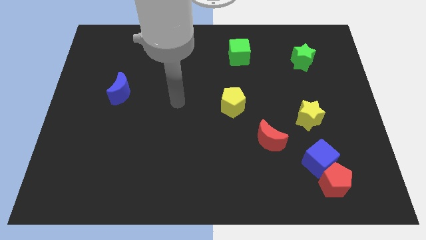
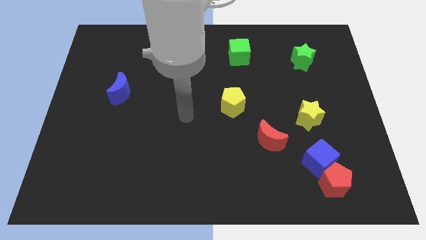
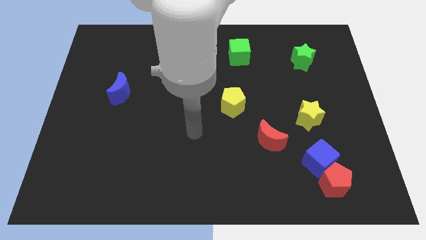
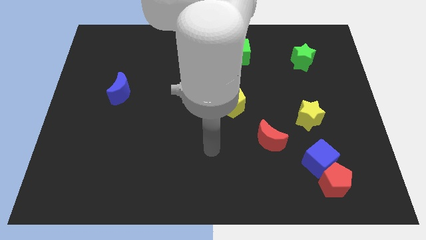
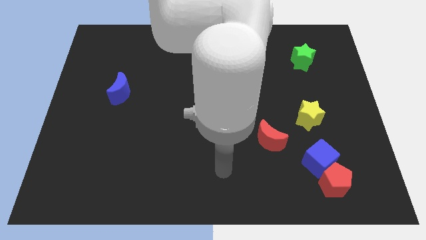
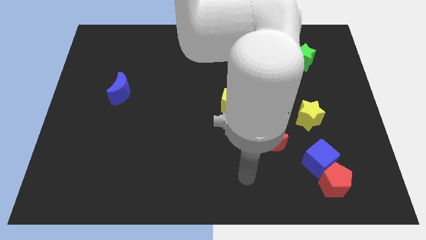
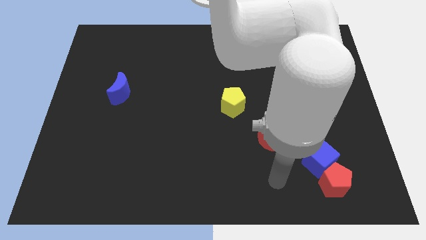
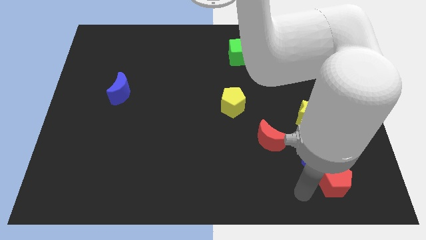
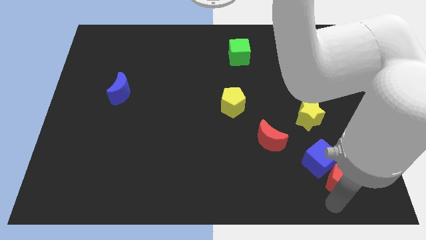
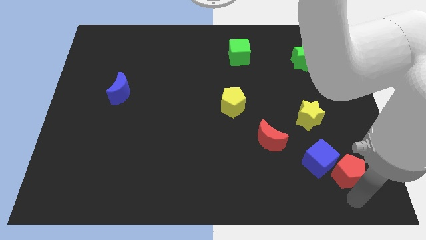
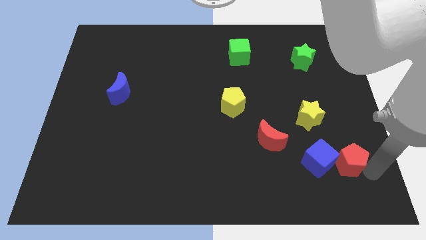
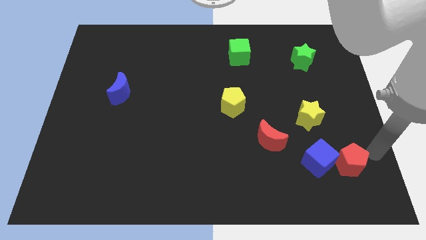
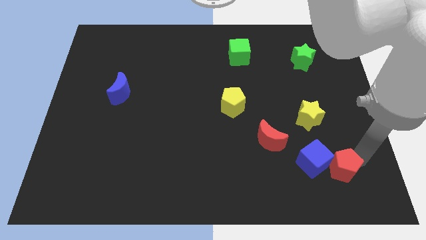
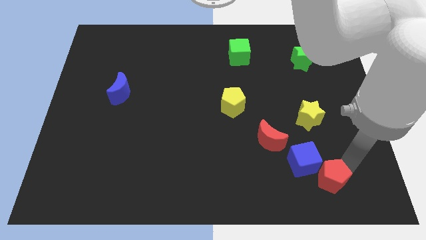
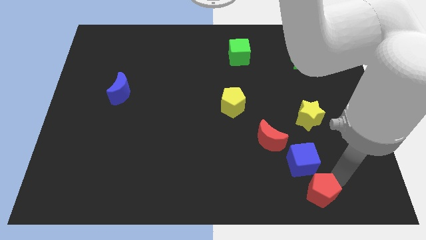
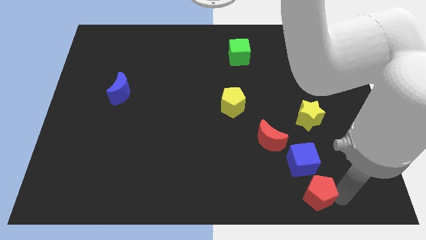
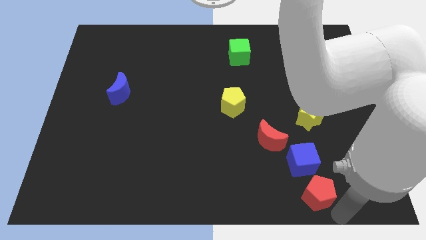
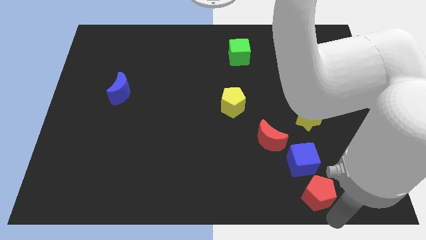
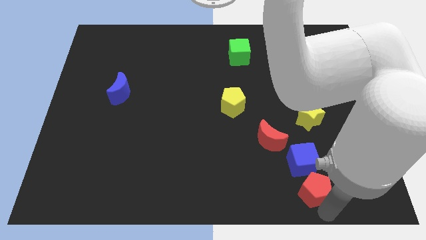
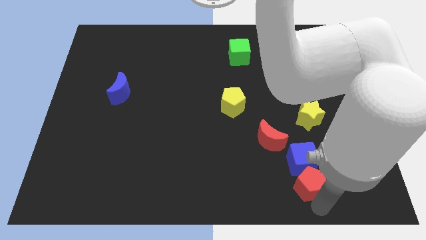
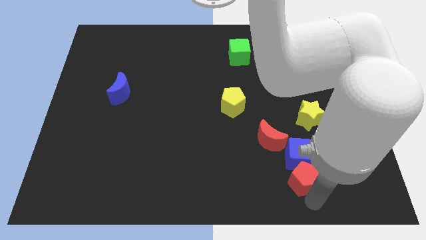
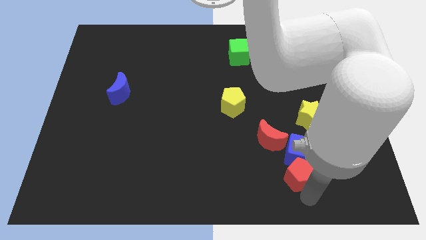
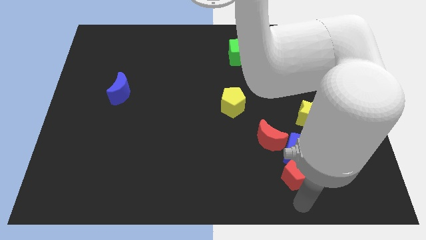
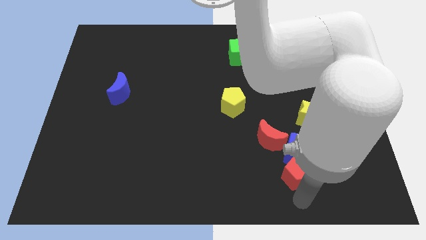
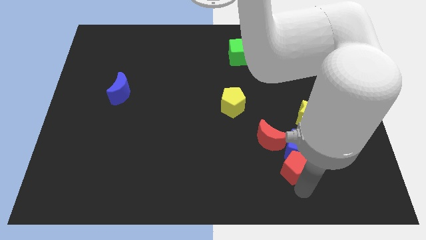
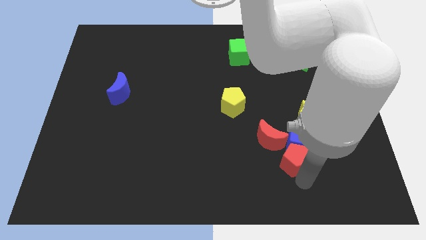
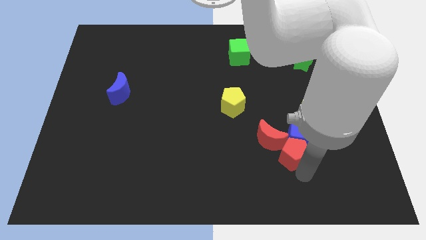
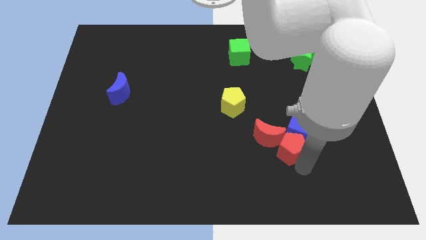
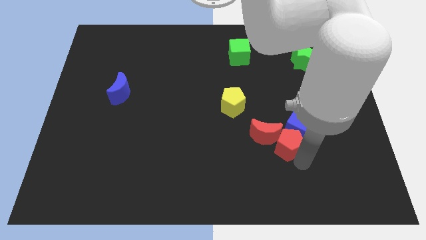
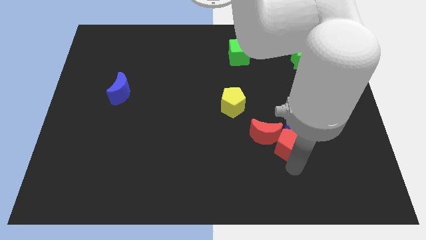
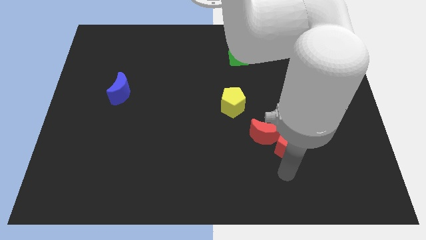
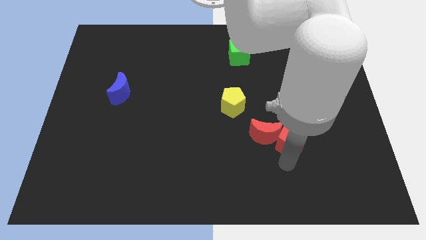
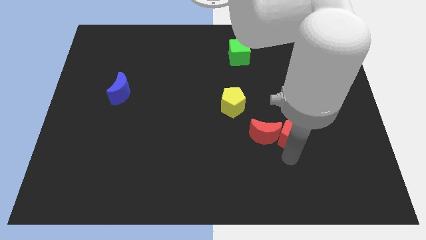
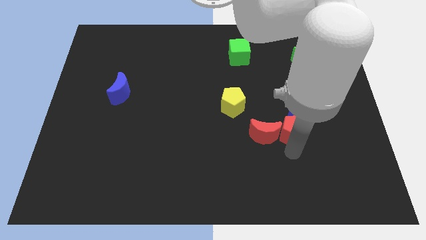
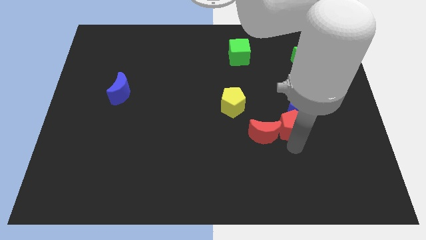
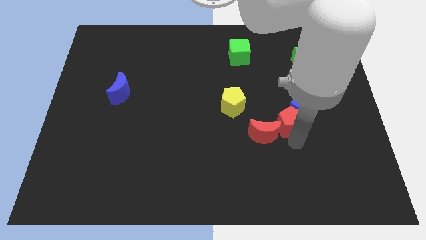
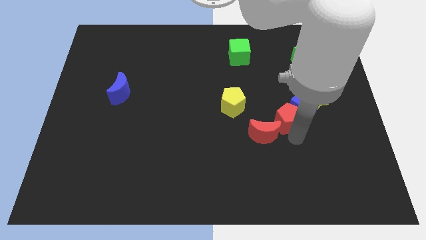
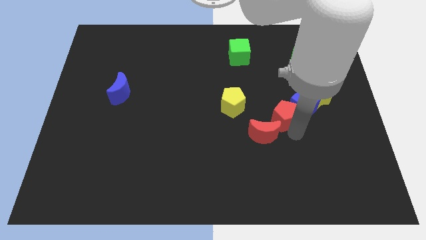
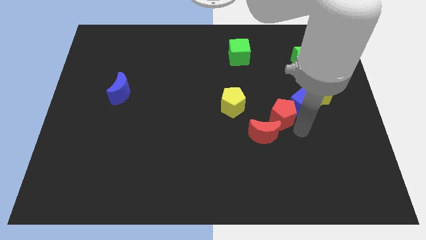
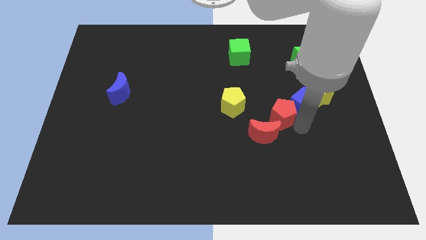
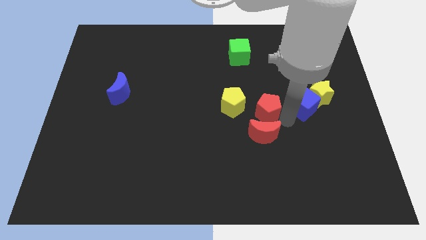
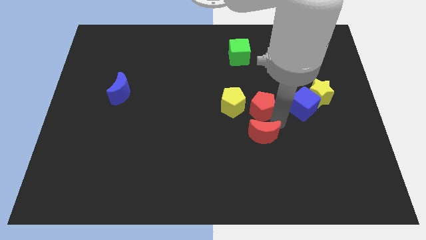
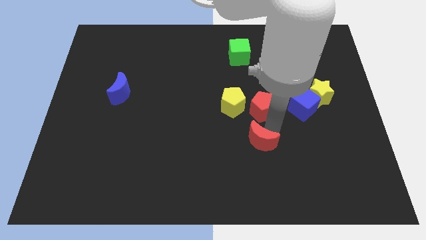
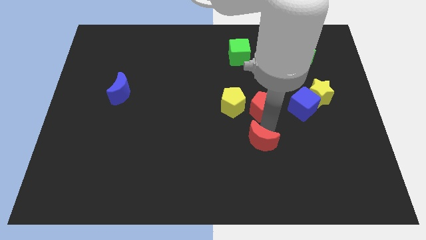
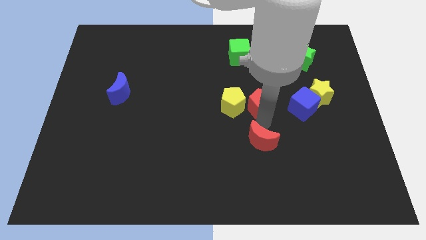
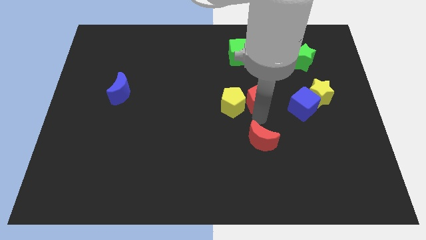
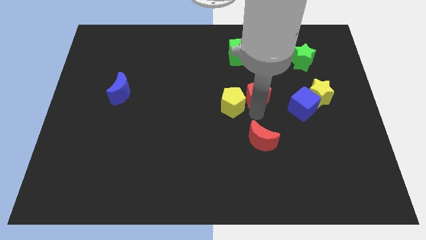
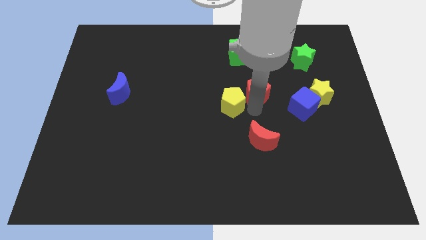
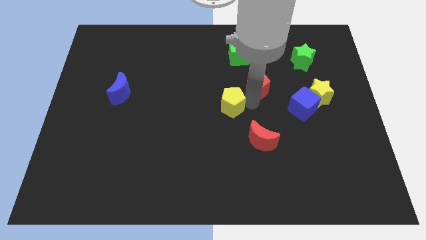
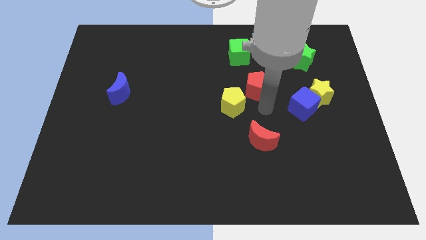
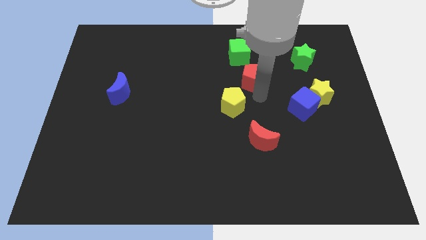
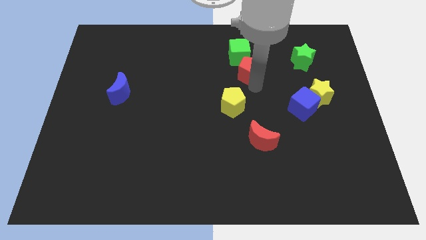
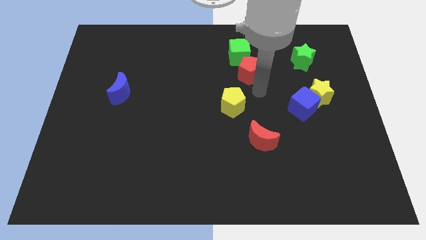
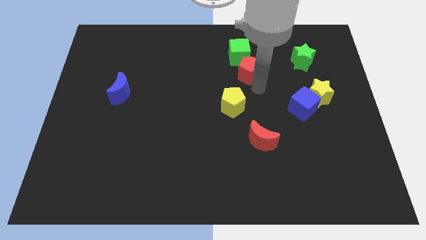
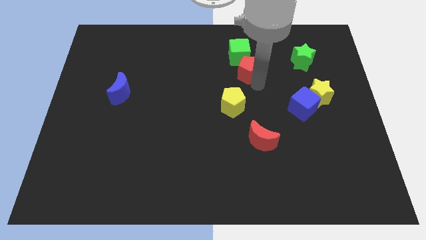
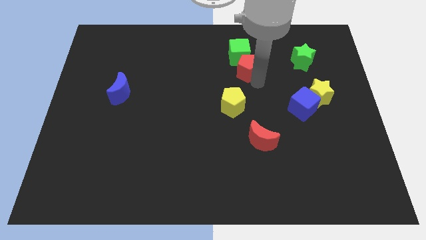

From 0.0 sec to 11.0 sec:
push the red pentagon to the green cube

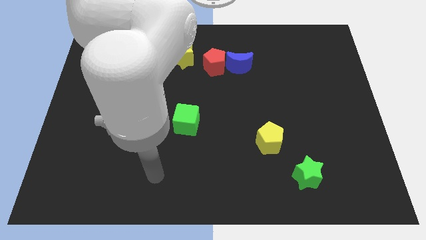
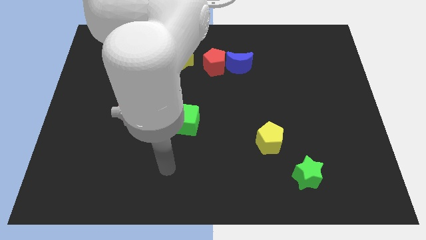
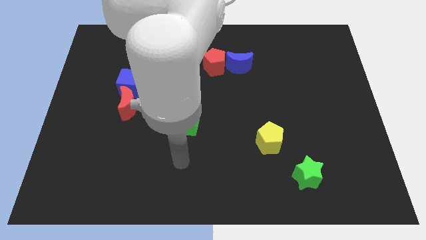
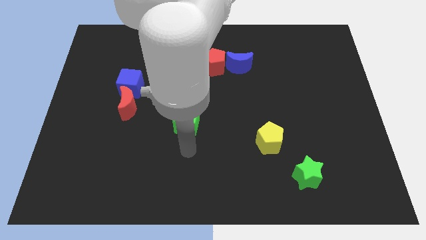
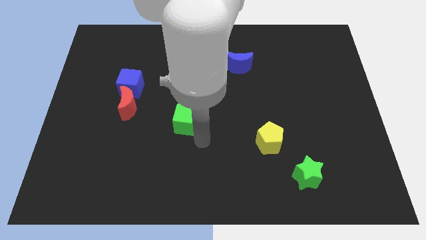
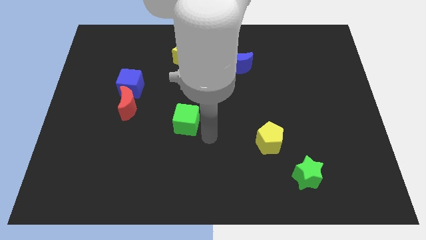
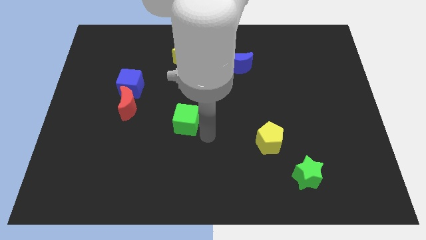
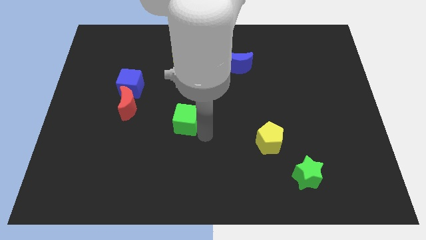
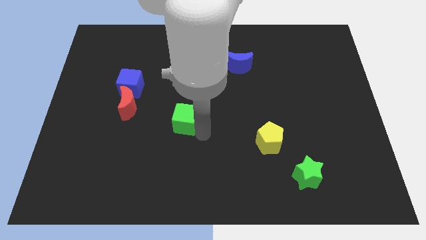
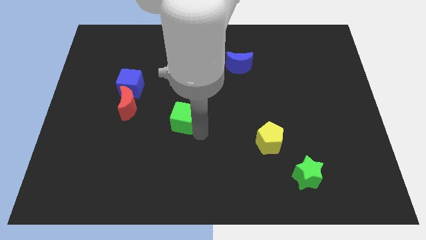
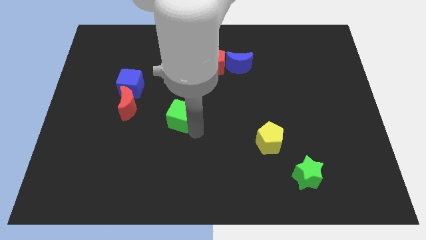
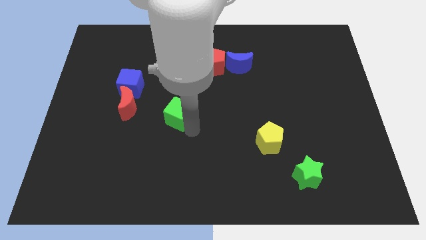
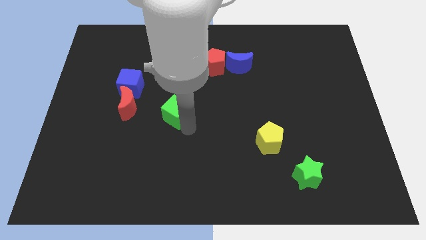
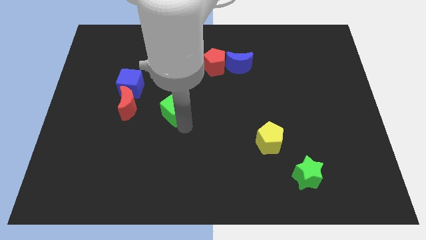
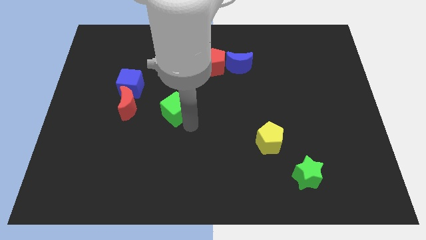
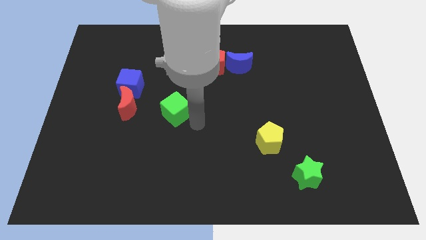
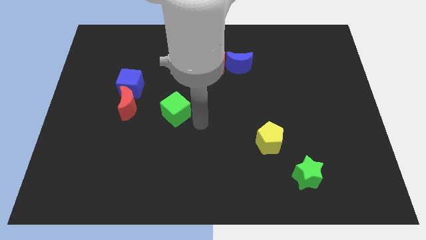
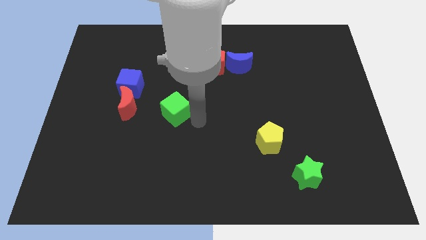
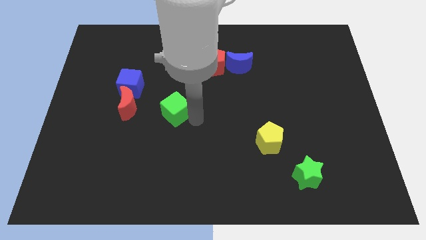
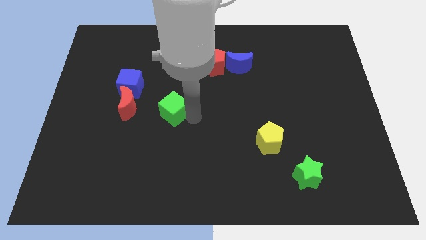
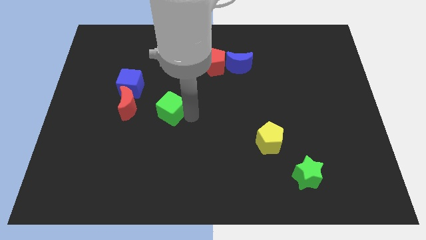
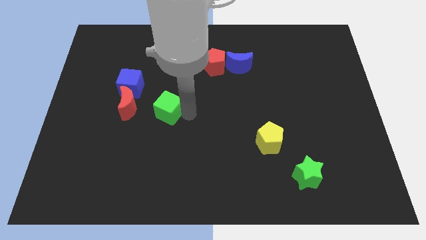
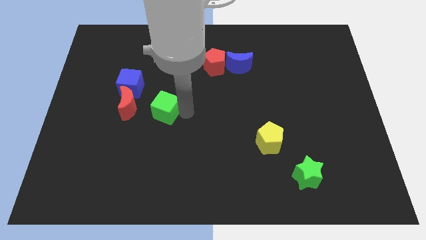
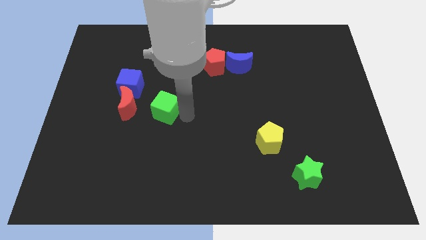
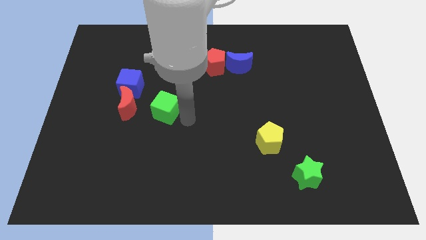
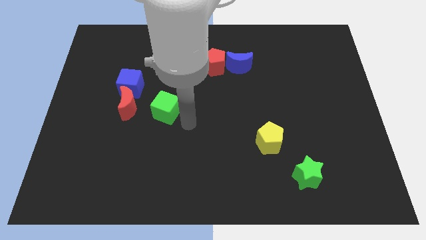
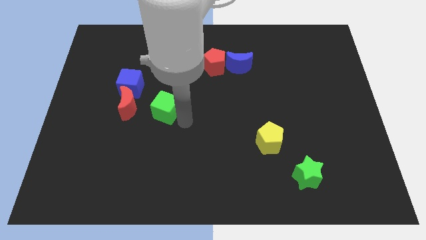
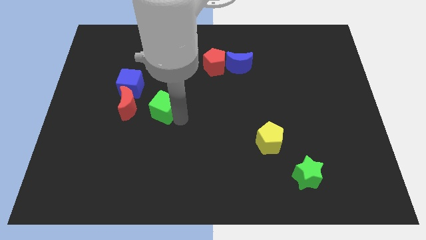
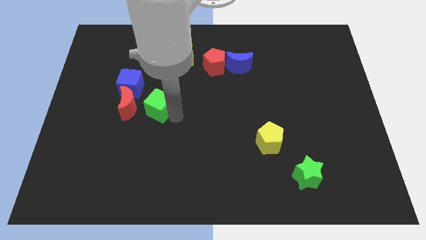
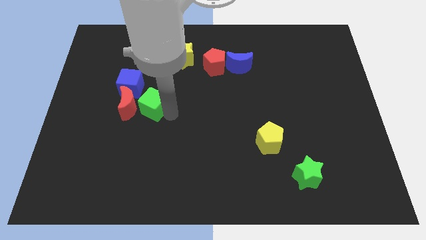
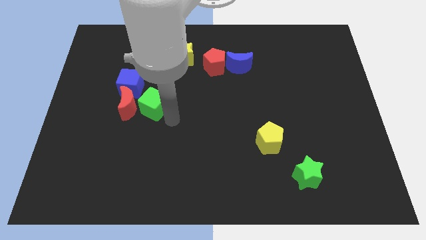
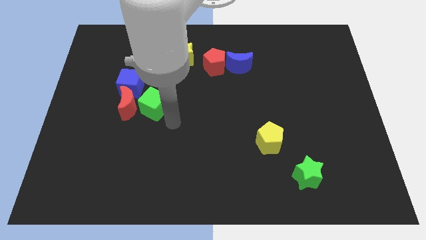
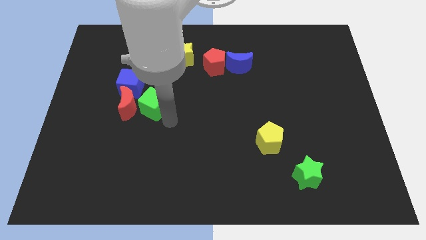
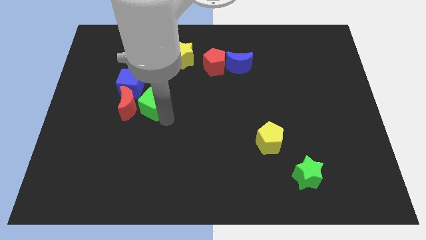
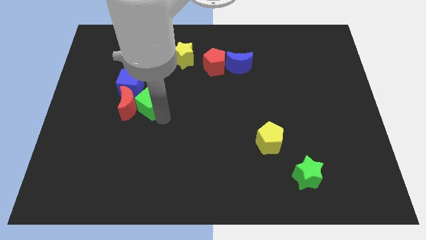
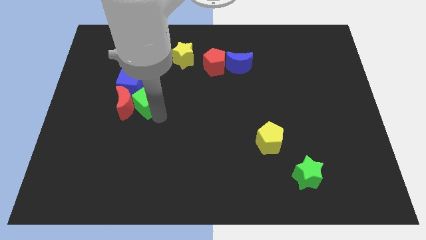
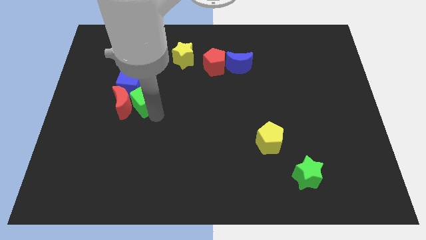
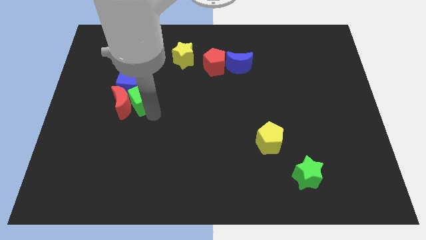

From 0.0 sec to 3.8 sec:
move the green cube towards the blue cube
